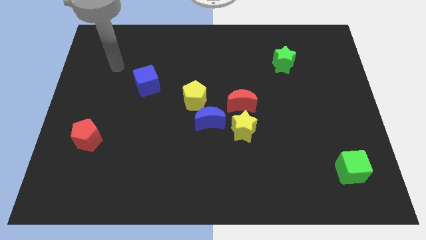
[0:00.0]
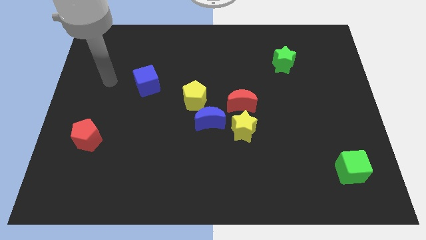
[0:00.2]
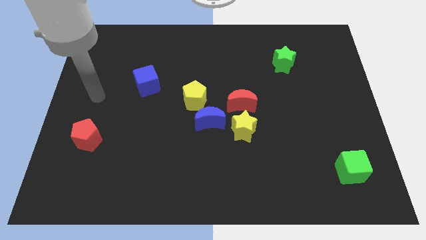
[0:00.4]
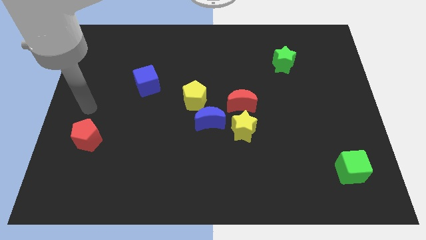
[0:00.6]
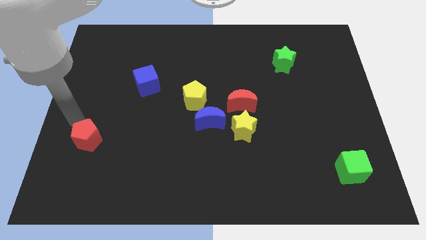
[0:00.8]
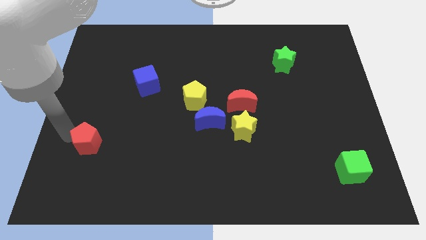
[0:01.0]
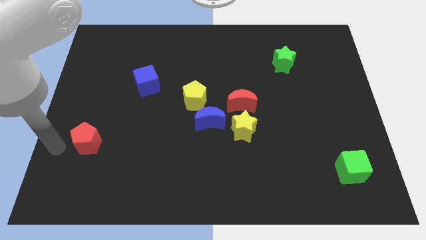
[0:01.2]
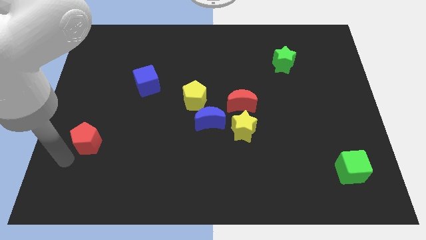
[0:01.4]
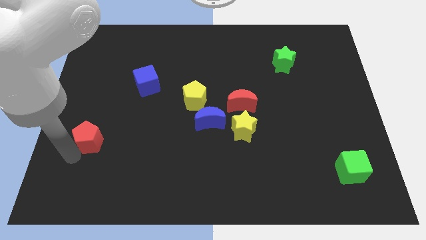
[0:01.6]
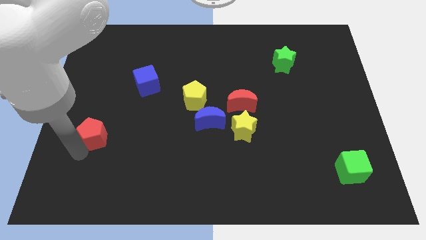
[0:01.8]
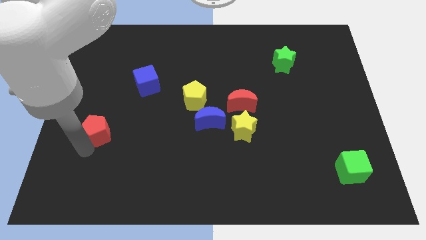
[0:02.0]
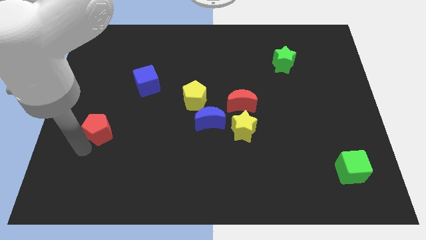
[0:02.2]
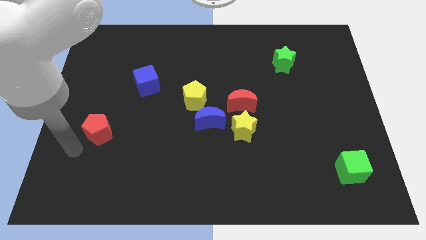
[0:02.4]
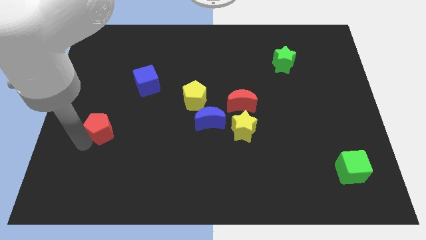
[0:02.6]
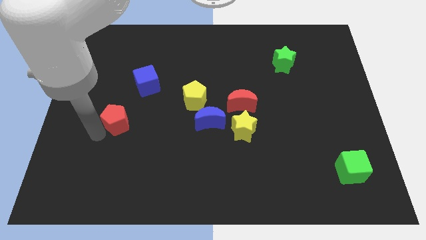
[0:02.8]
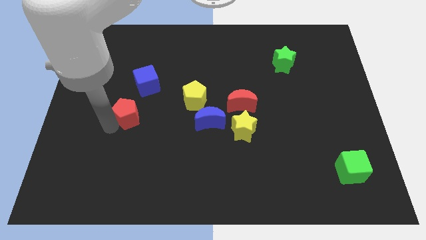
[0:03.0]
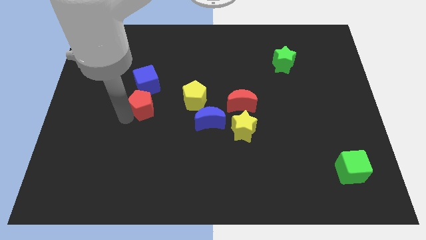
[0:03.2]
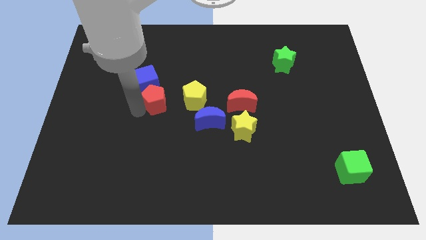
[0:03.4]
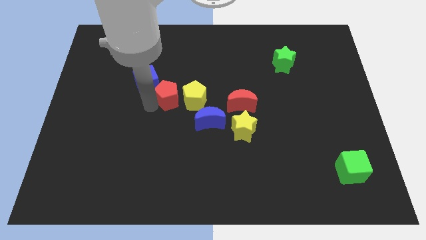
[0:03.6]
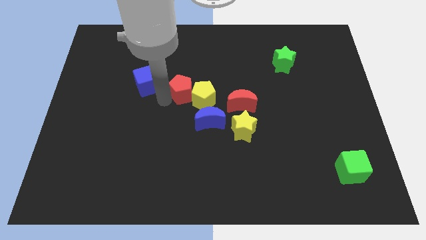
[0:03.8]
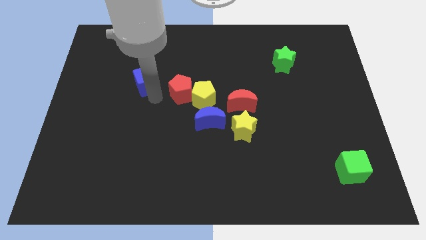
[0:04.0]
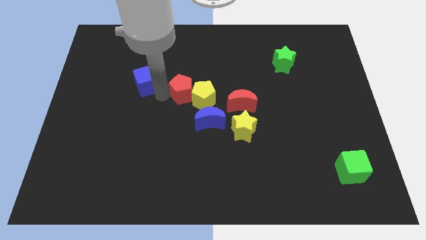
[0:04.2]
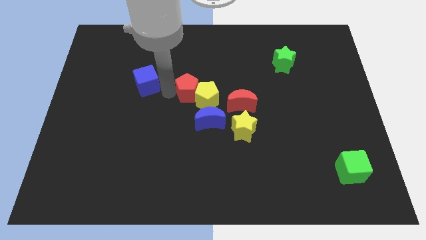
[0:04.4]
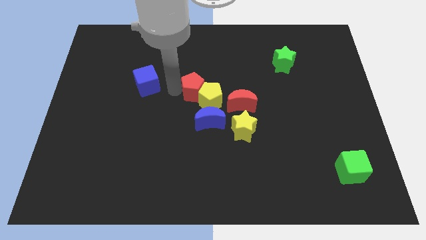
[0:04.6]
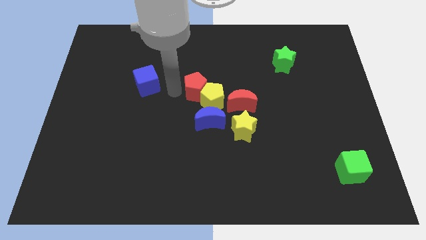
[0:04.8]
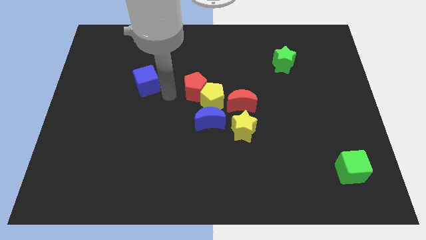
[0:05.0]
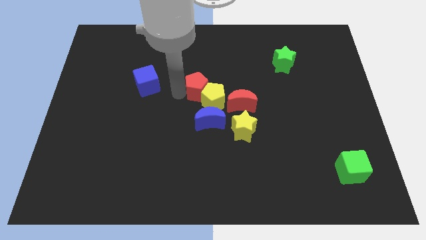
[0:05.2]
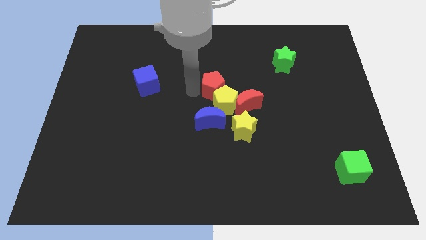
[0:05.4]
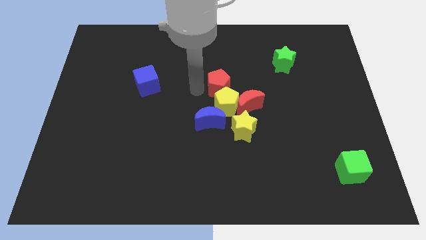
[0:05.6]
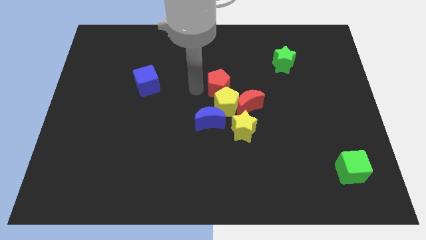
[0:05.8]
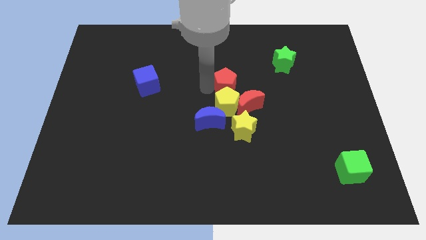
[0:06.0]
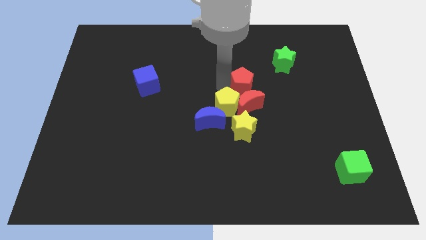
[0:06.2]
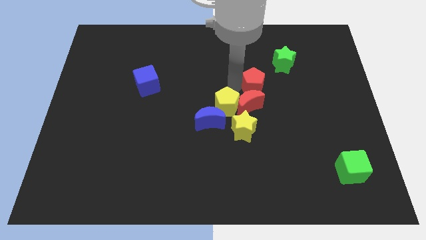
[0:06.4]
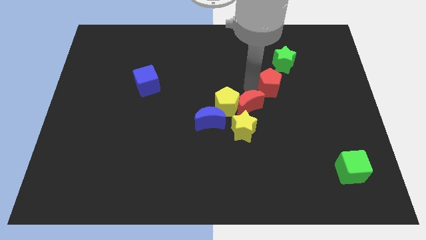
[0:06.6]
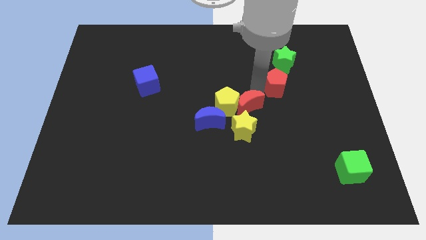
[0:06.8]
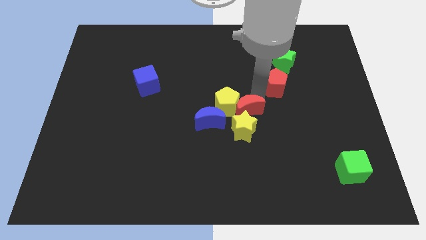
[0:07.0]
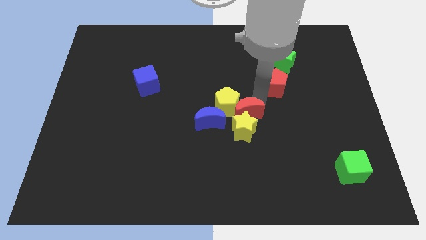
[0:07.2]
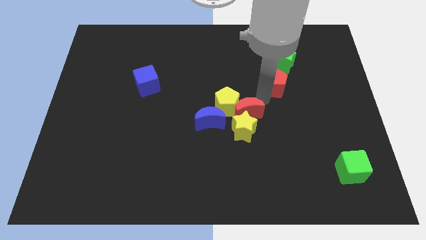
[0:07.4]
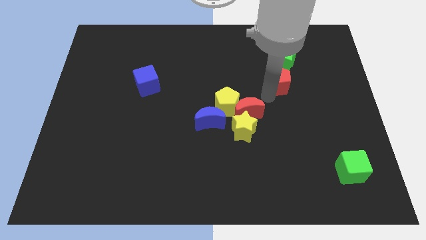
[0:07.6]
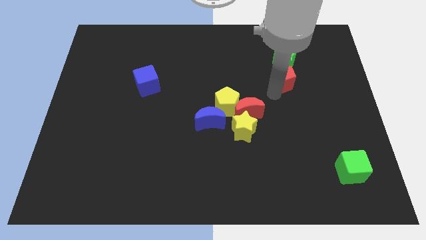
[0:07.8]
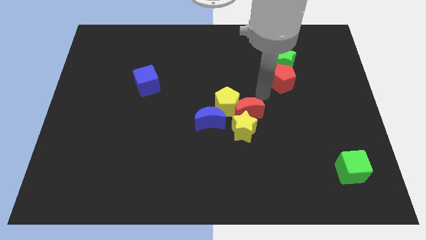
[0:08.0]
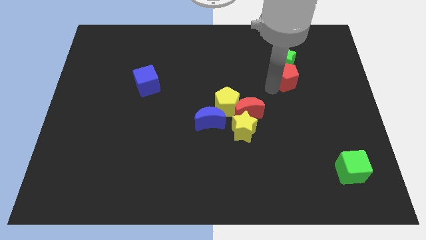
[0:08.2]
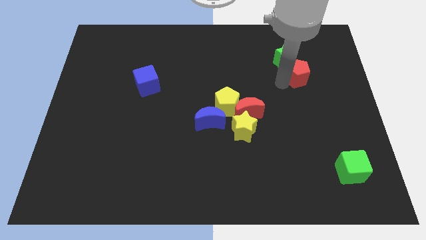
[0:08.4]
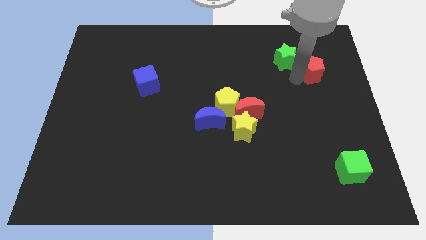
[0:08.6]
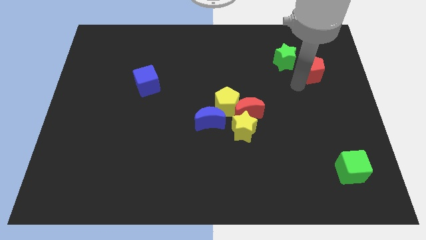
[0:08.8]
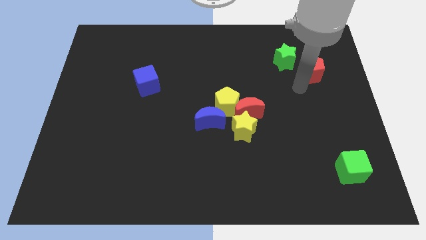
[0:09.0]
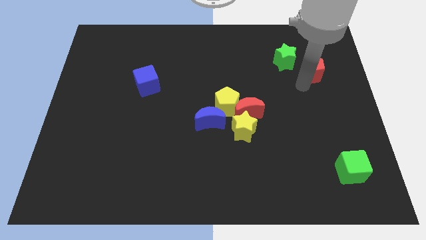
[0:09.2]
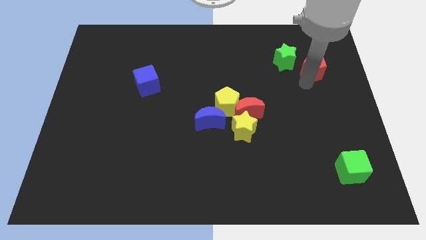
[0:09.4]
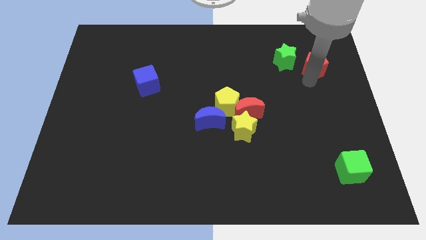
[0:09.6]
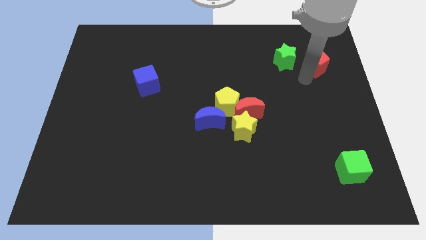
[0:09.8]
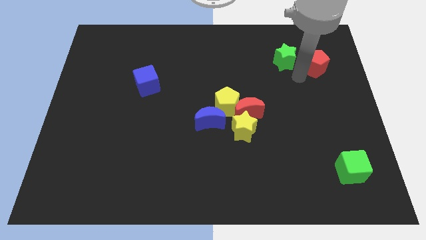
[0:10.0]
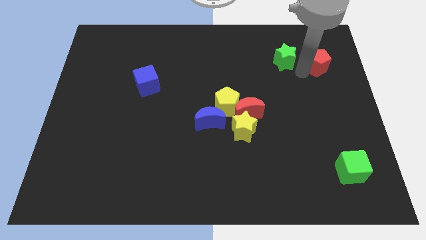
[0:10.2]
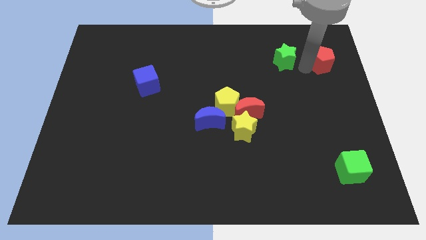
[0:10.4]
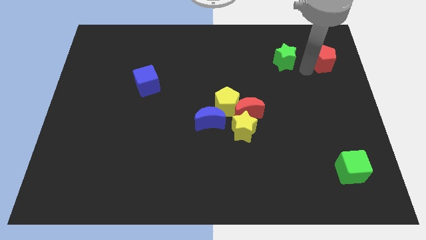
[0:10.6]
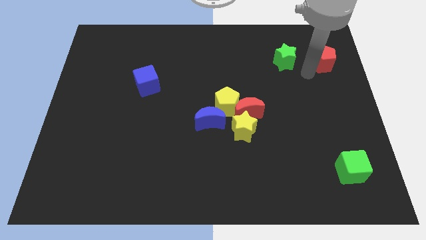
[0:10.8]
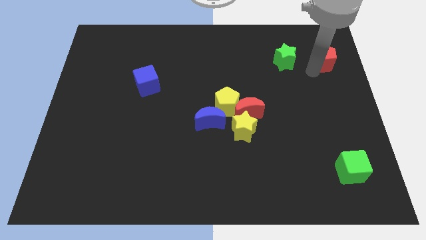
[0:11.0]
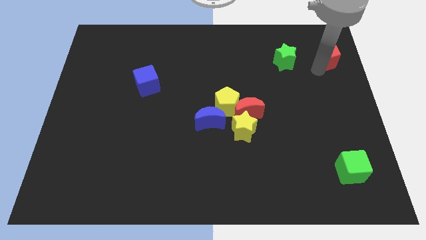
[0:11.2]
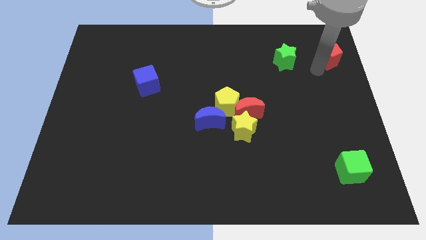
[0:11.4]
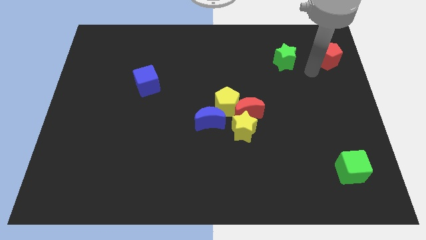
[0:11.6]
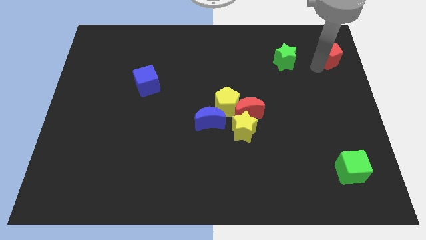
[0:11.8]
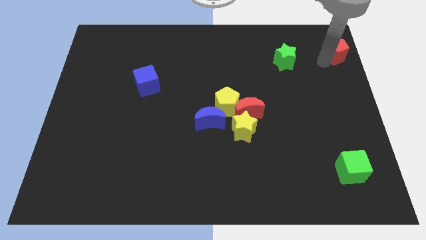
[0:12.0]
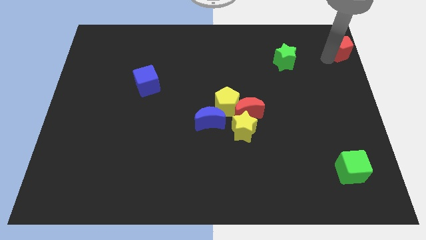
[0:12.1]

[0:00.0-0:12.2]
push the red pentagon to the top right corner
